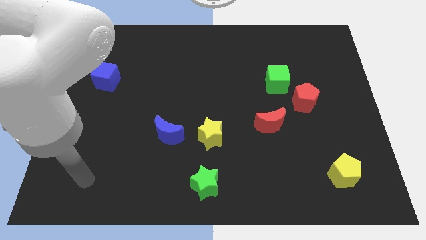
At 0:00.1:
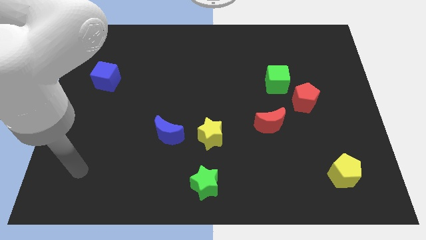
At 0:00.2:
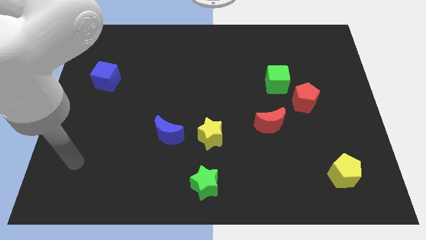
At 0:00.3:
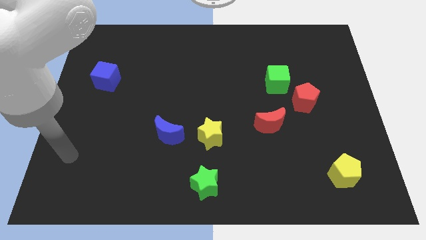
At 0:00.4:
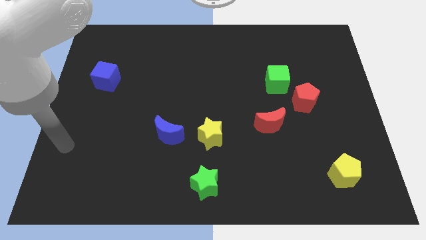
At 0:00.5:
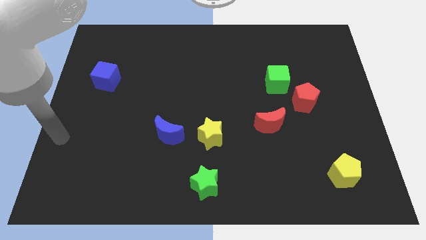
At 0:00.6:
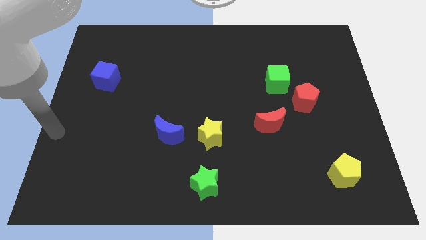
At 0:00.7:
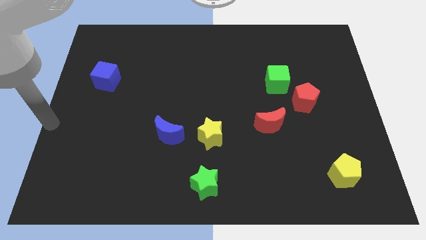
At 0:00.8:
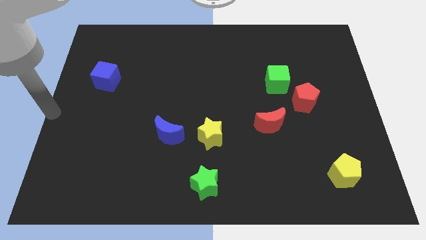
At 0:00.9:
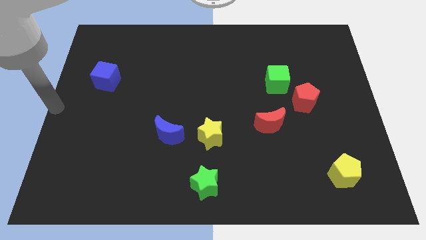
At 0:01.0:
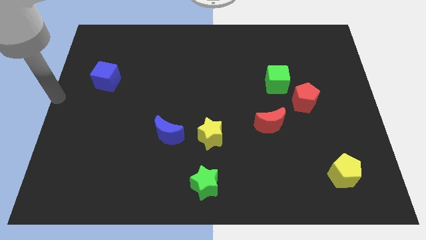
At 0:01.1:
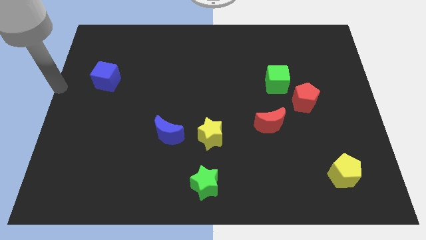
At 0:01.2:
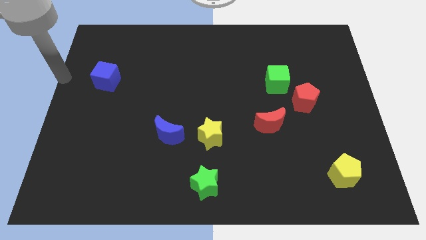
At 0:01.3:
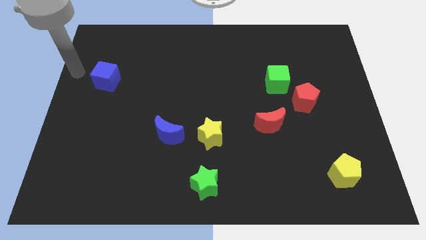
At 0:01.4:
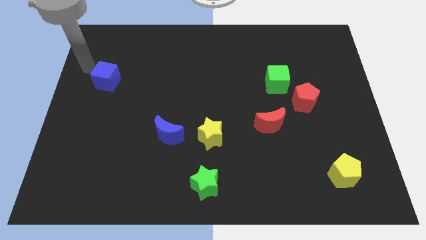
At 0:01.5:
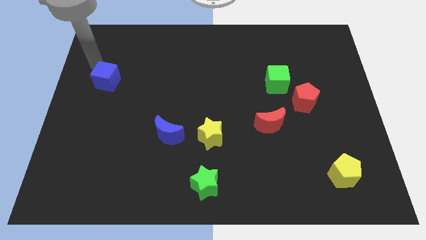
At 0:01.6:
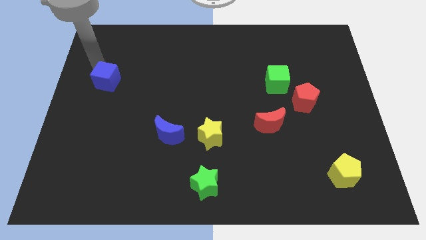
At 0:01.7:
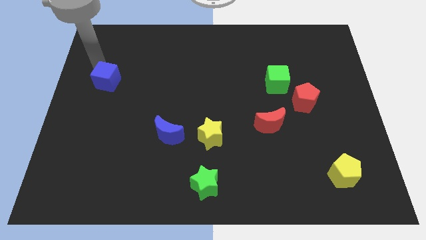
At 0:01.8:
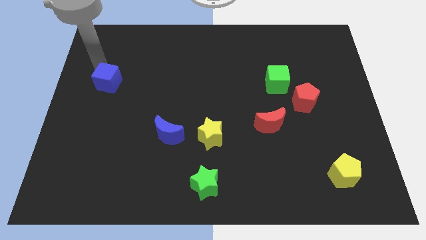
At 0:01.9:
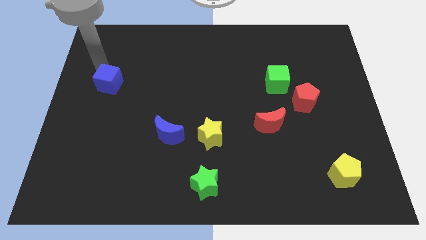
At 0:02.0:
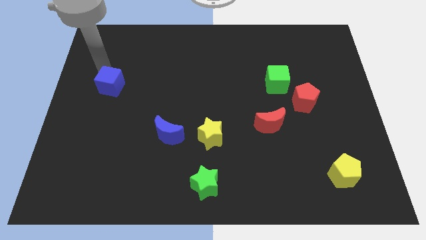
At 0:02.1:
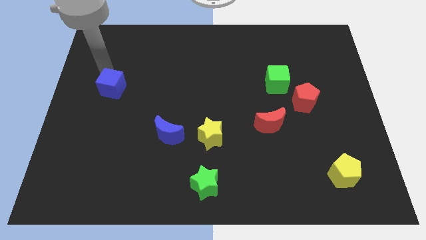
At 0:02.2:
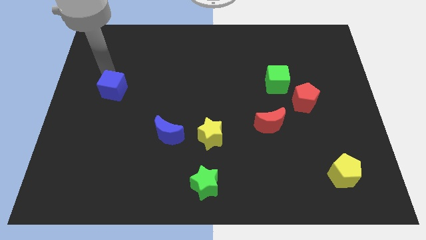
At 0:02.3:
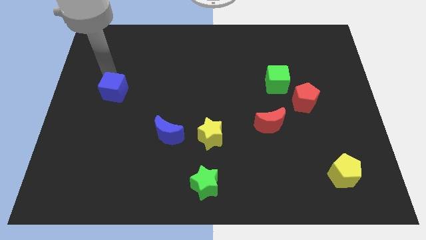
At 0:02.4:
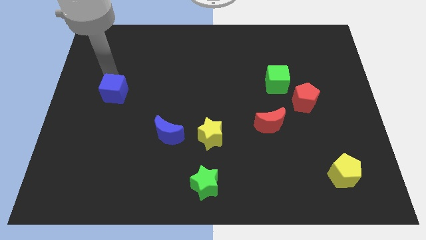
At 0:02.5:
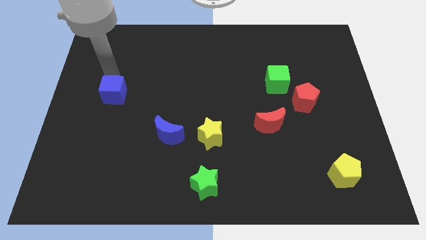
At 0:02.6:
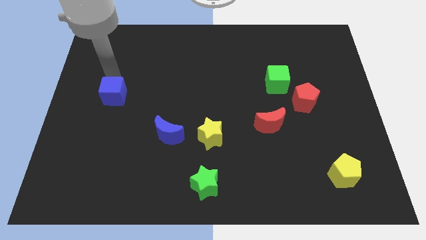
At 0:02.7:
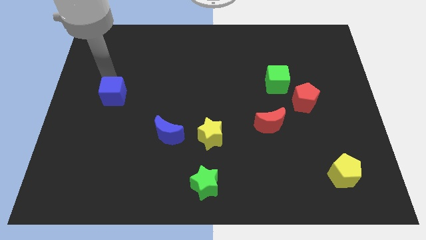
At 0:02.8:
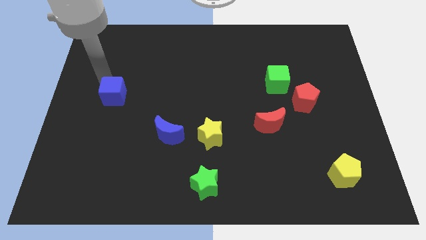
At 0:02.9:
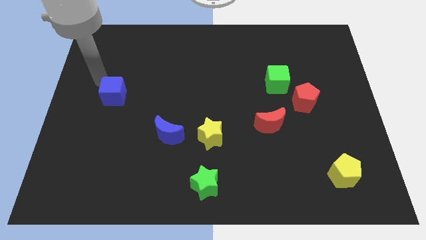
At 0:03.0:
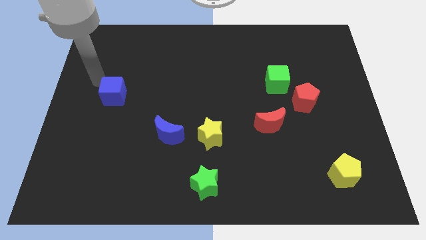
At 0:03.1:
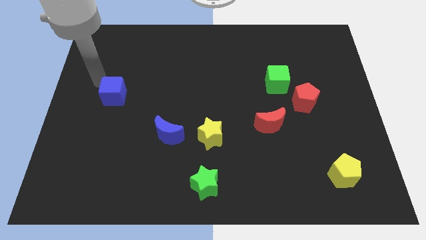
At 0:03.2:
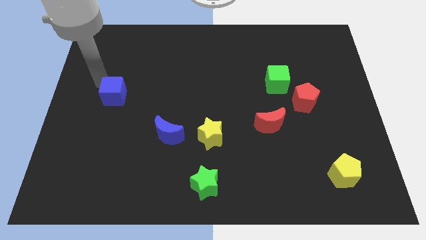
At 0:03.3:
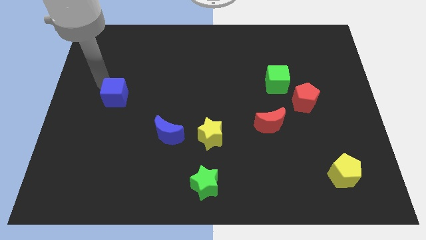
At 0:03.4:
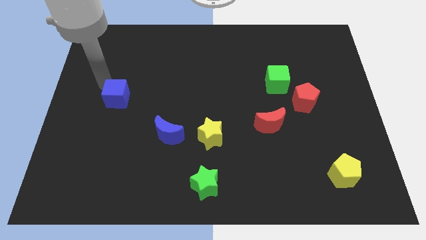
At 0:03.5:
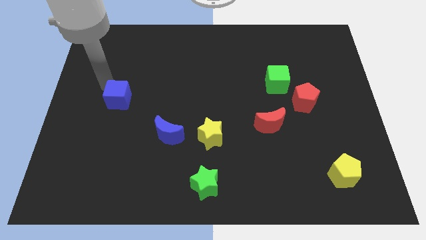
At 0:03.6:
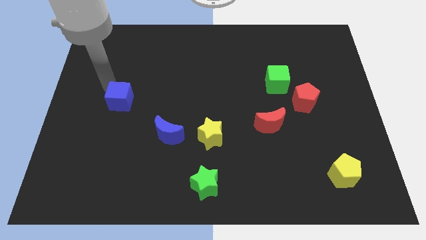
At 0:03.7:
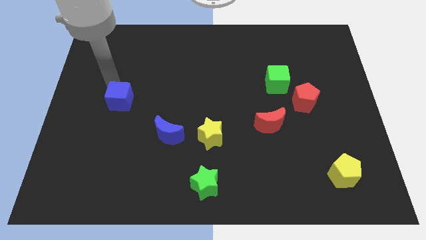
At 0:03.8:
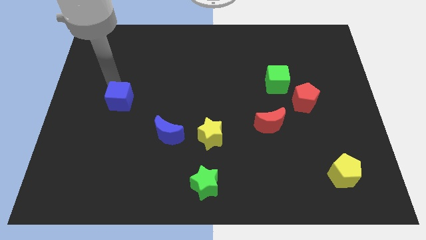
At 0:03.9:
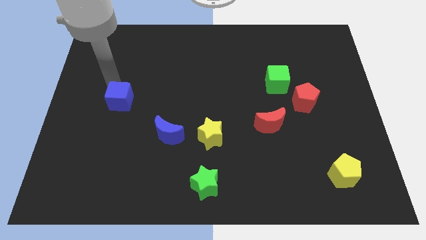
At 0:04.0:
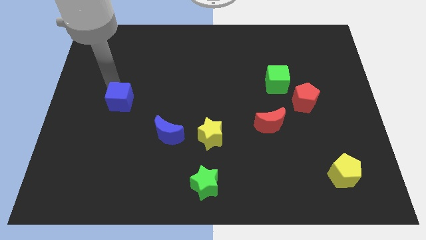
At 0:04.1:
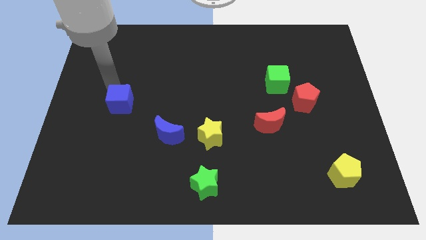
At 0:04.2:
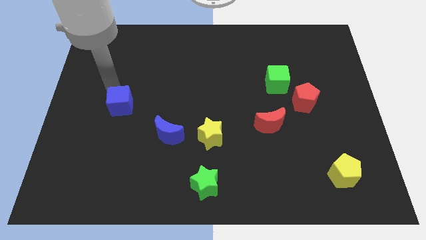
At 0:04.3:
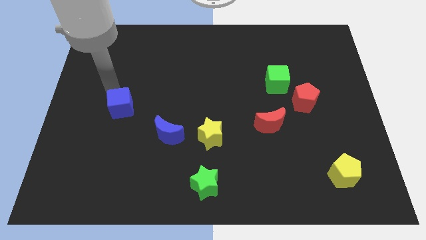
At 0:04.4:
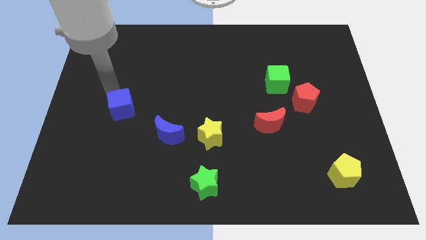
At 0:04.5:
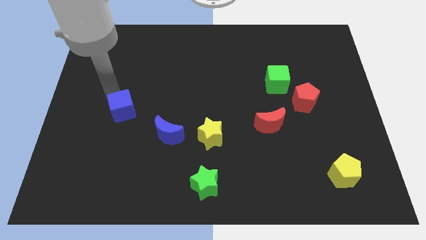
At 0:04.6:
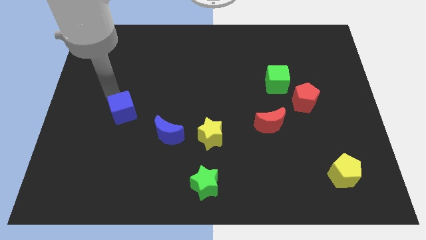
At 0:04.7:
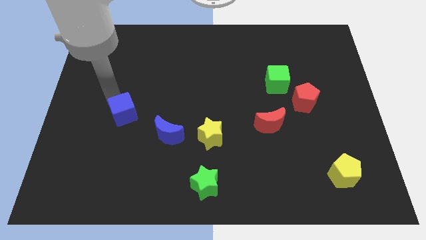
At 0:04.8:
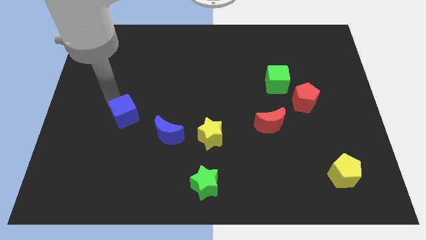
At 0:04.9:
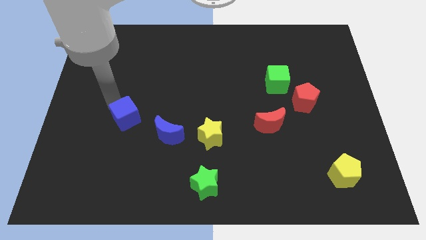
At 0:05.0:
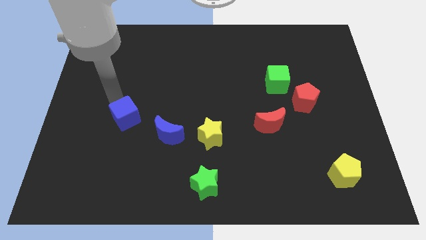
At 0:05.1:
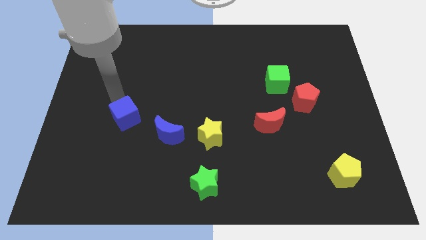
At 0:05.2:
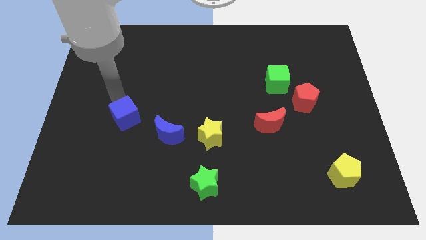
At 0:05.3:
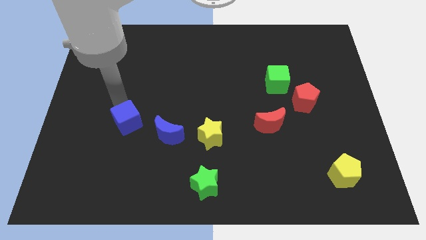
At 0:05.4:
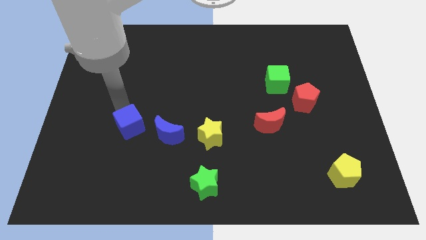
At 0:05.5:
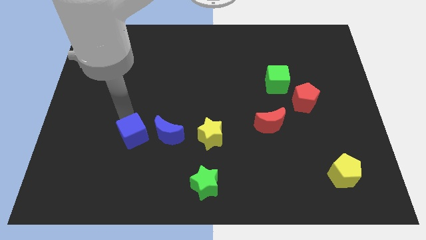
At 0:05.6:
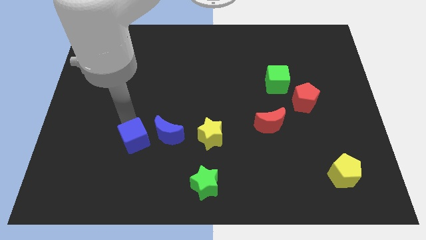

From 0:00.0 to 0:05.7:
slide the blue cube diagonally down and to the left of the blue moon

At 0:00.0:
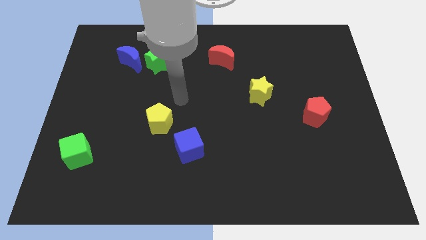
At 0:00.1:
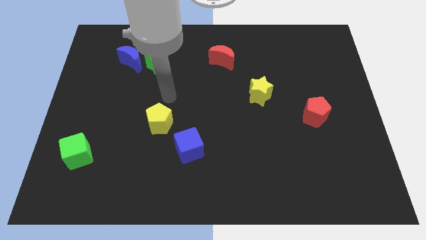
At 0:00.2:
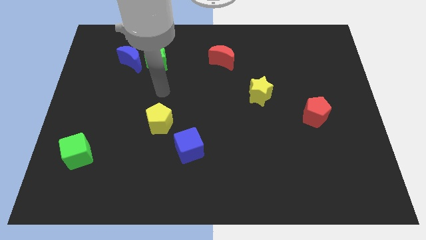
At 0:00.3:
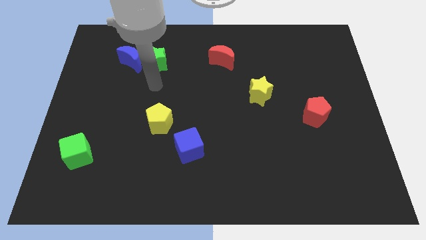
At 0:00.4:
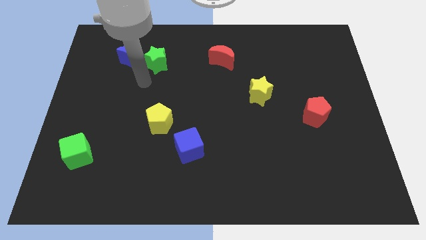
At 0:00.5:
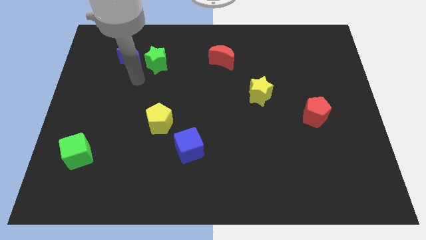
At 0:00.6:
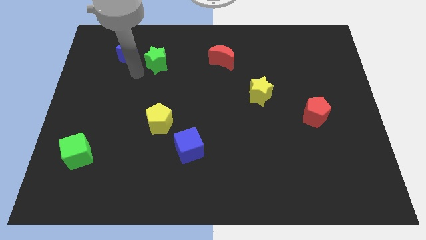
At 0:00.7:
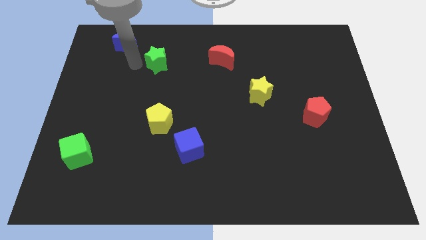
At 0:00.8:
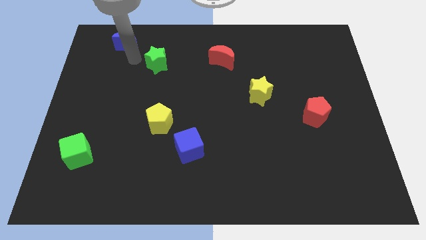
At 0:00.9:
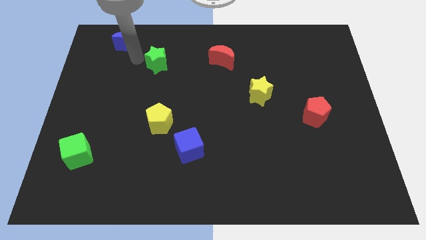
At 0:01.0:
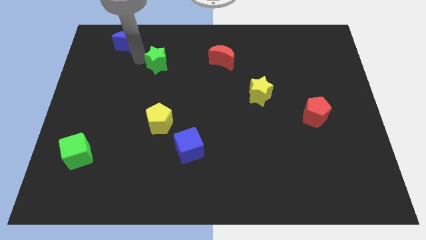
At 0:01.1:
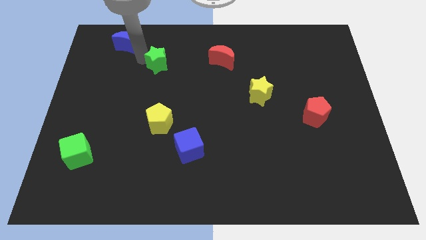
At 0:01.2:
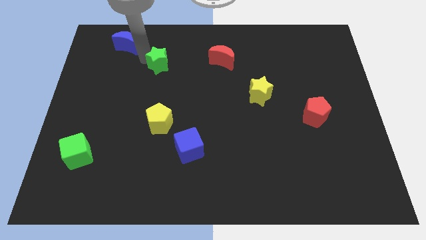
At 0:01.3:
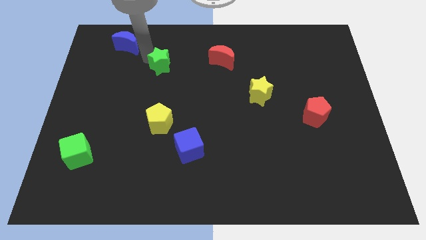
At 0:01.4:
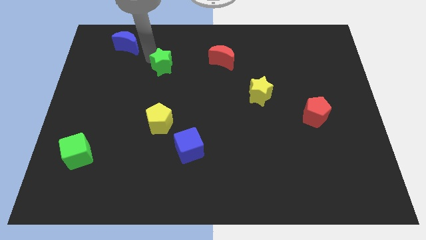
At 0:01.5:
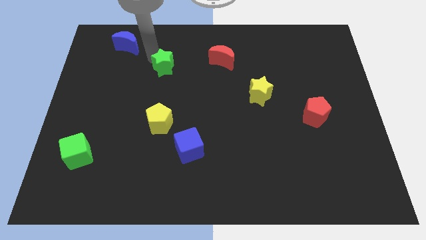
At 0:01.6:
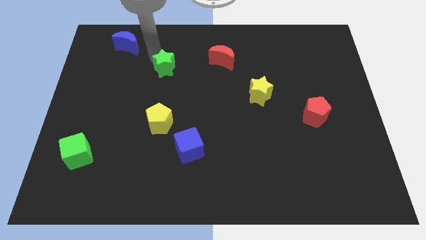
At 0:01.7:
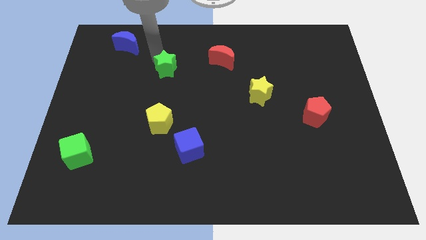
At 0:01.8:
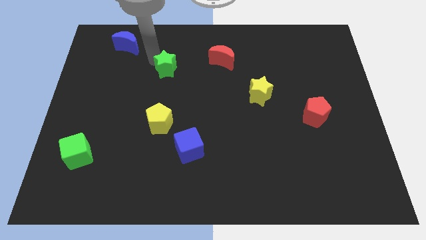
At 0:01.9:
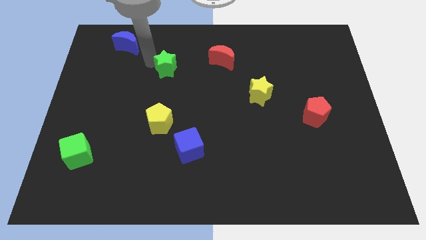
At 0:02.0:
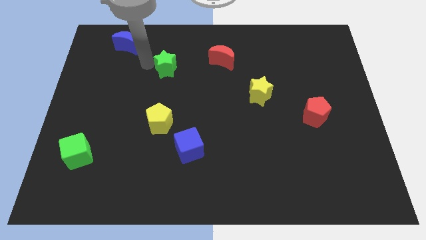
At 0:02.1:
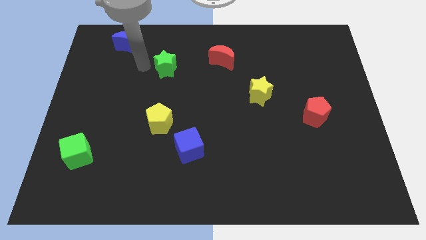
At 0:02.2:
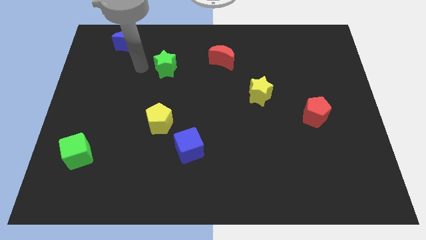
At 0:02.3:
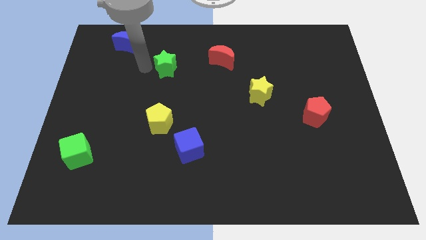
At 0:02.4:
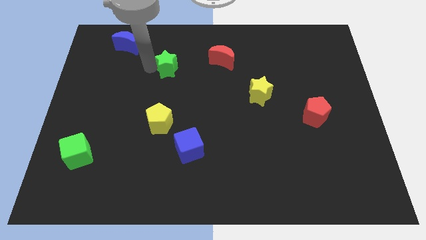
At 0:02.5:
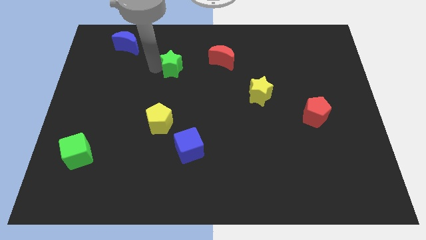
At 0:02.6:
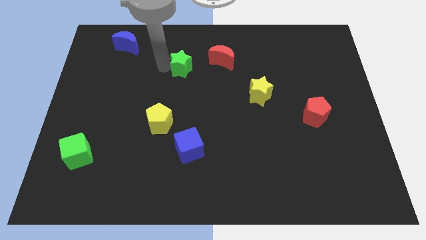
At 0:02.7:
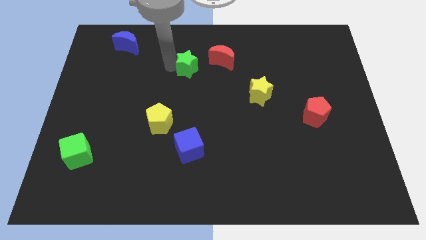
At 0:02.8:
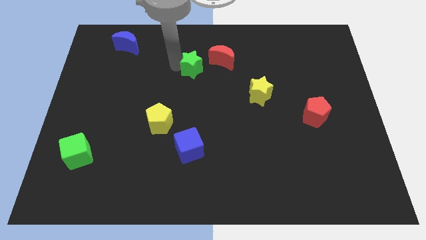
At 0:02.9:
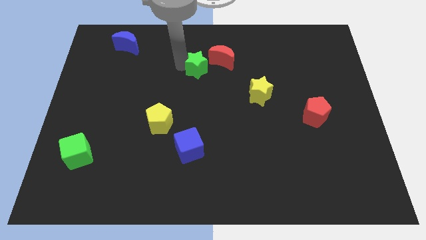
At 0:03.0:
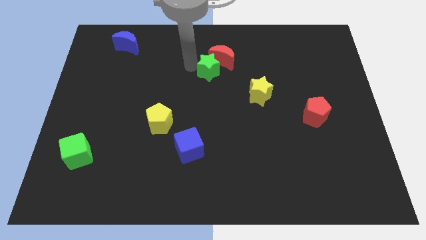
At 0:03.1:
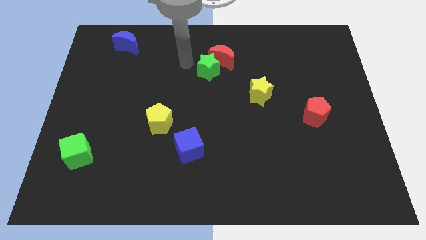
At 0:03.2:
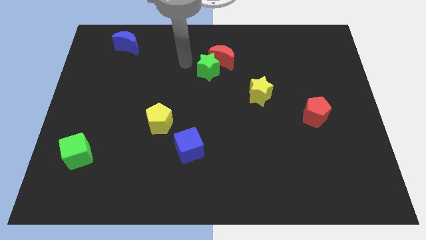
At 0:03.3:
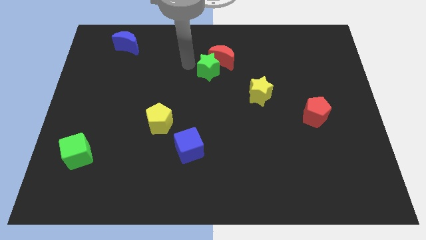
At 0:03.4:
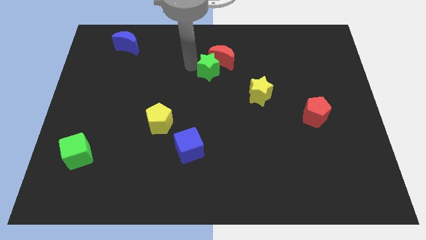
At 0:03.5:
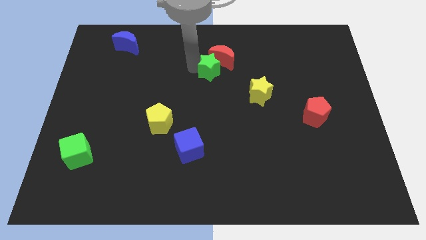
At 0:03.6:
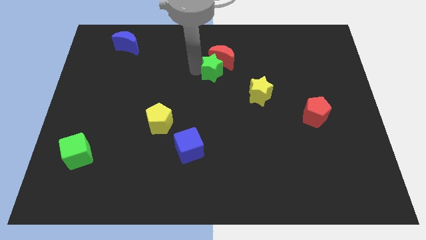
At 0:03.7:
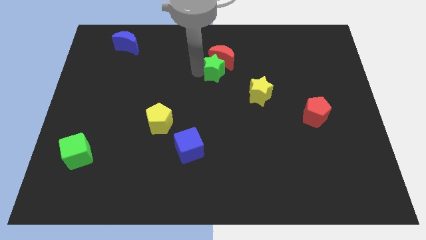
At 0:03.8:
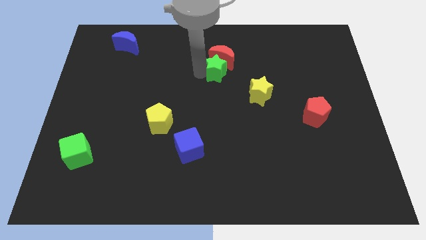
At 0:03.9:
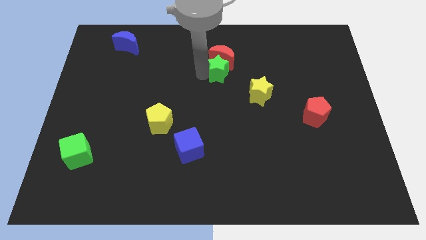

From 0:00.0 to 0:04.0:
put the green star diagonally up and to the left of the yellow star
